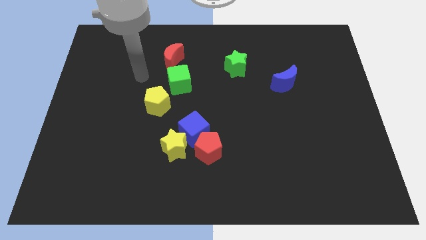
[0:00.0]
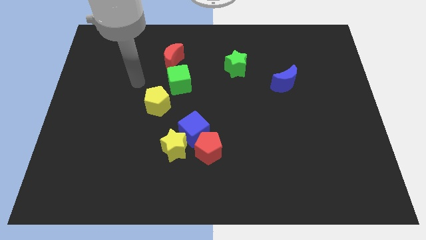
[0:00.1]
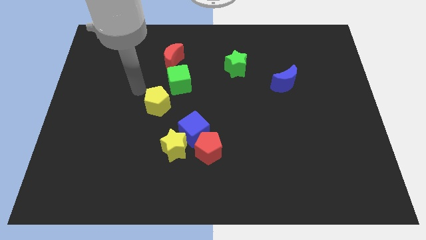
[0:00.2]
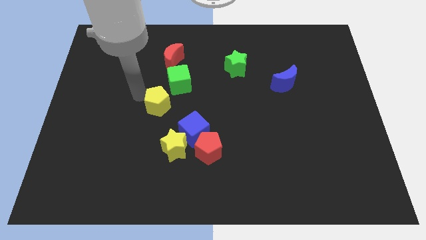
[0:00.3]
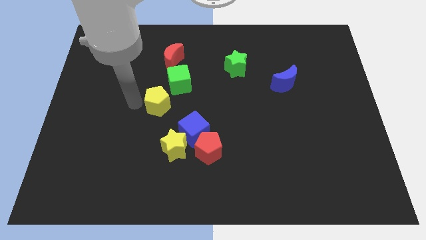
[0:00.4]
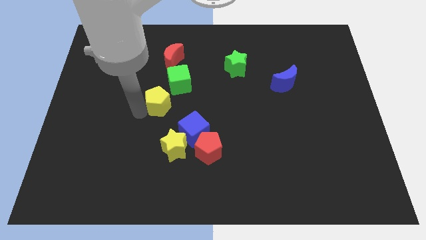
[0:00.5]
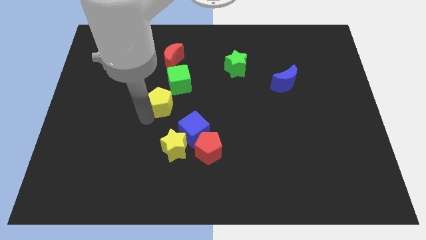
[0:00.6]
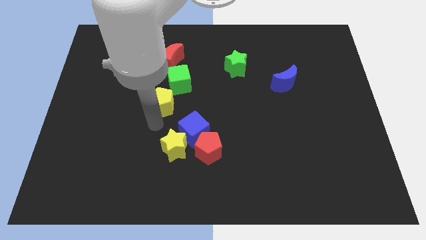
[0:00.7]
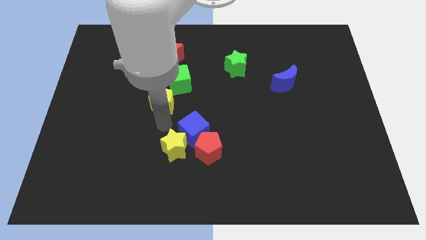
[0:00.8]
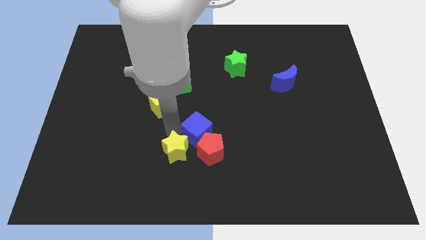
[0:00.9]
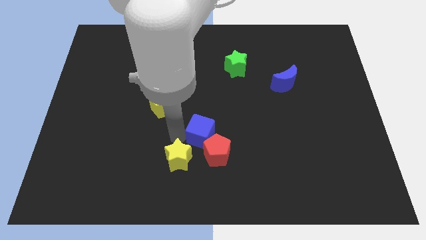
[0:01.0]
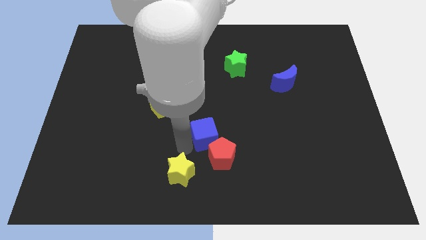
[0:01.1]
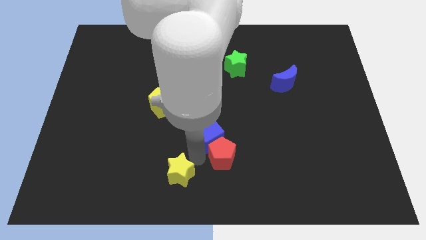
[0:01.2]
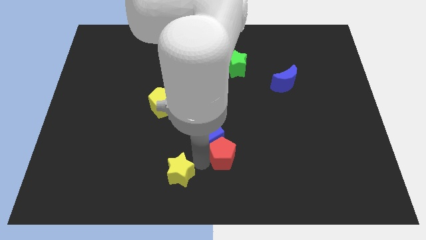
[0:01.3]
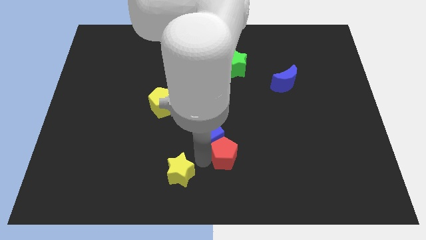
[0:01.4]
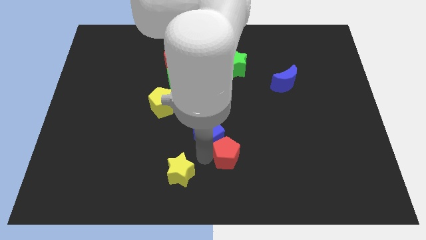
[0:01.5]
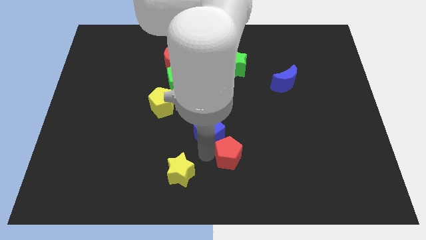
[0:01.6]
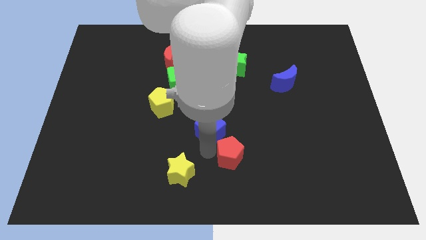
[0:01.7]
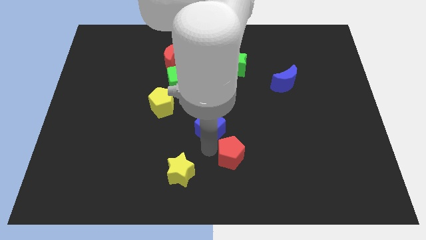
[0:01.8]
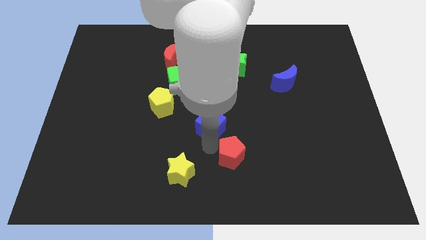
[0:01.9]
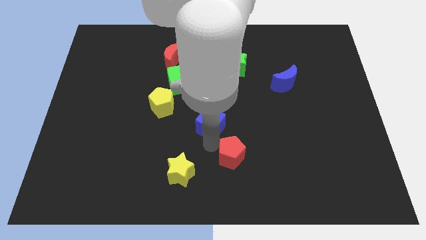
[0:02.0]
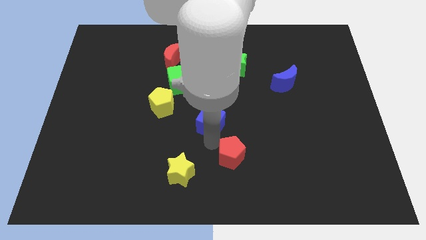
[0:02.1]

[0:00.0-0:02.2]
move the blue cube away from the red pentagon and yellow star

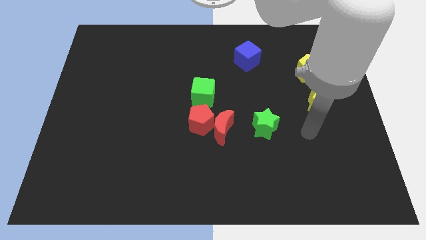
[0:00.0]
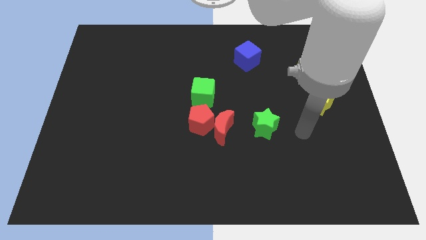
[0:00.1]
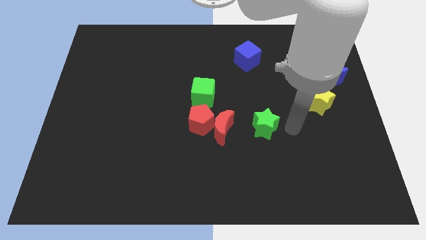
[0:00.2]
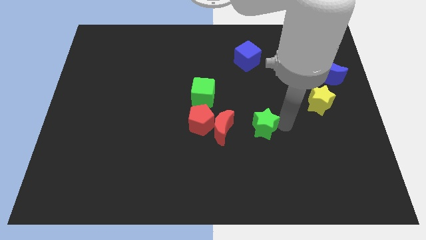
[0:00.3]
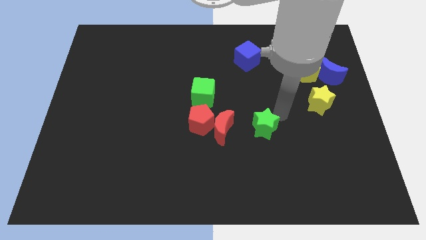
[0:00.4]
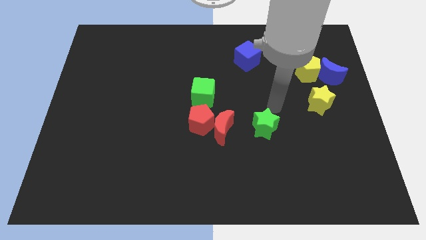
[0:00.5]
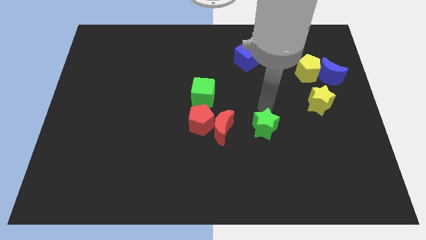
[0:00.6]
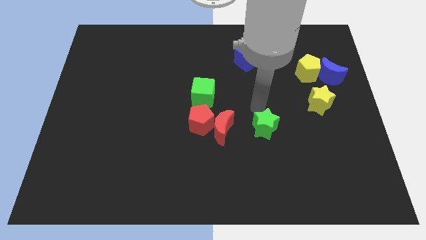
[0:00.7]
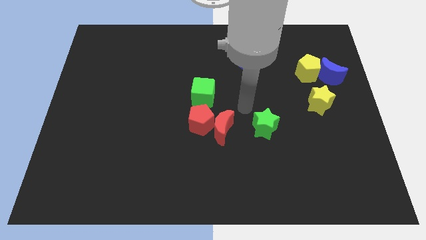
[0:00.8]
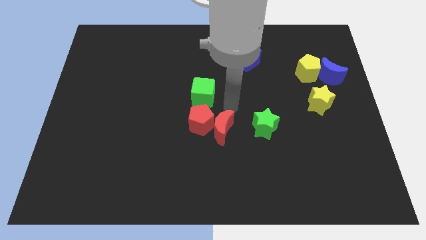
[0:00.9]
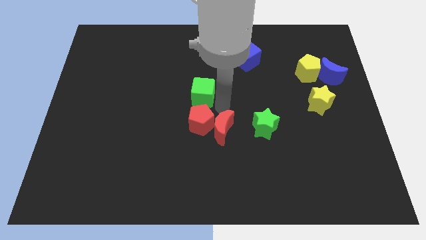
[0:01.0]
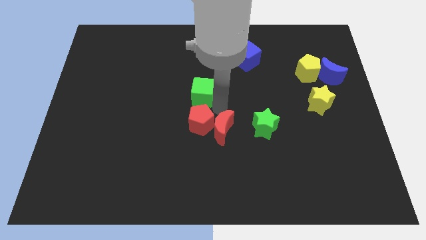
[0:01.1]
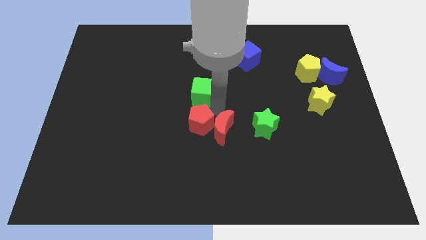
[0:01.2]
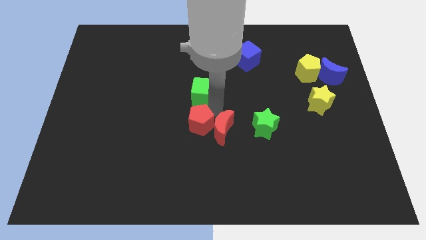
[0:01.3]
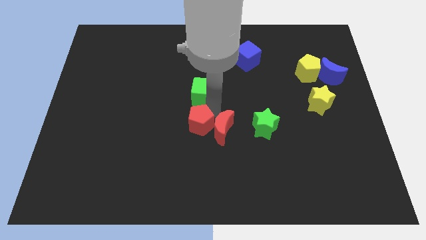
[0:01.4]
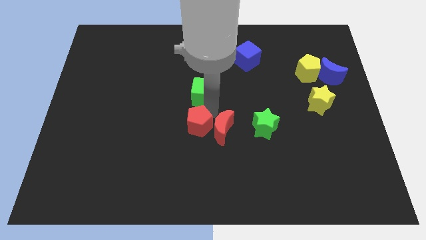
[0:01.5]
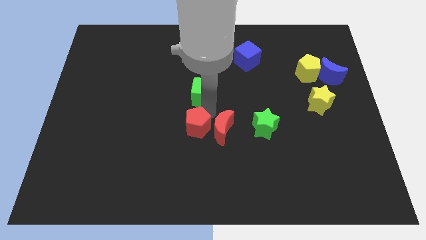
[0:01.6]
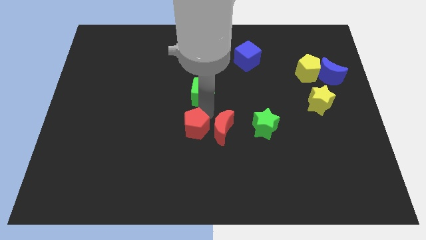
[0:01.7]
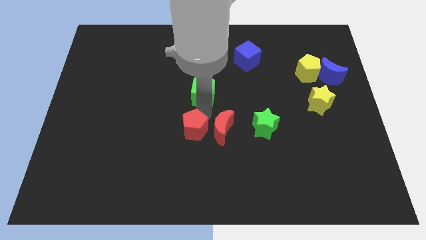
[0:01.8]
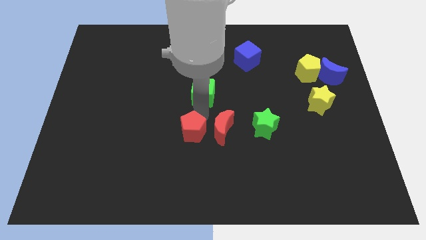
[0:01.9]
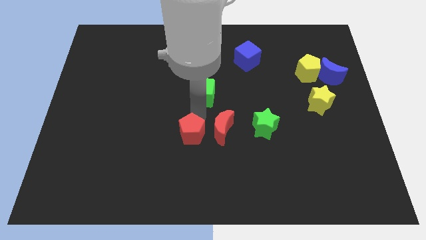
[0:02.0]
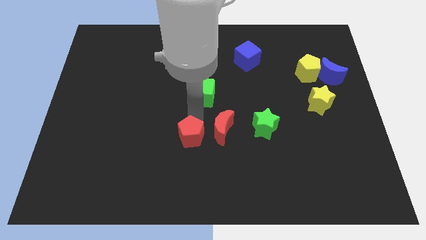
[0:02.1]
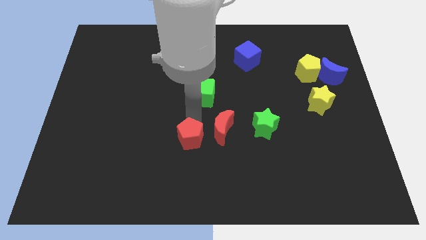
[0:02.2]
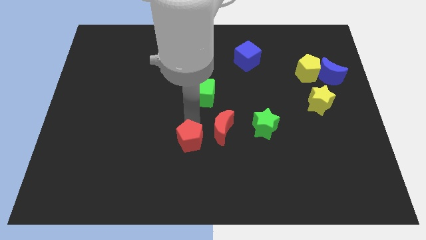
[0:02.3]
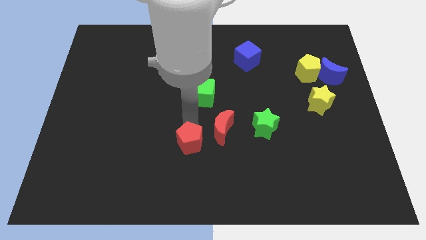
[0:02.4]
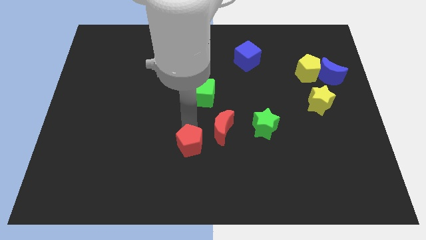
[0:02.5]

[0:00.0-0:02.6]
separate the red pentagon from the red moon and green cube

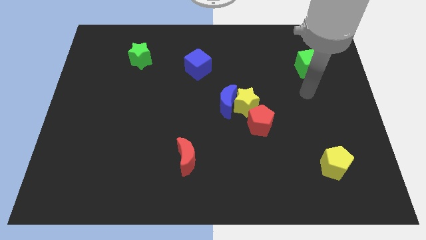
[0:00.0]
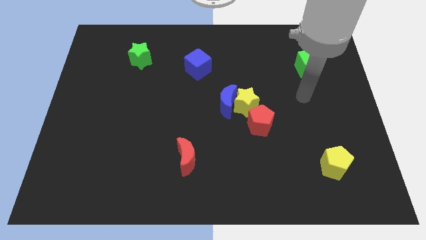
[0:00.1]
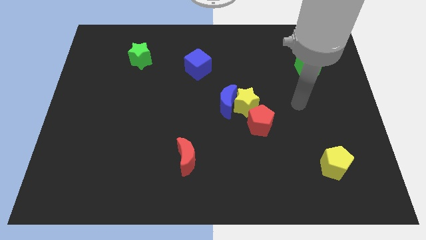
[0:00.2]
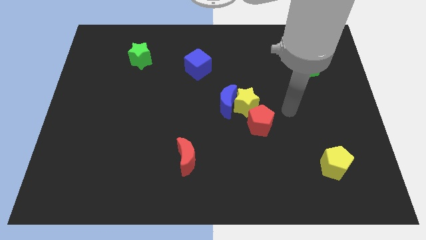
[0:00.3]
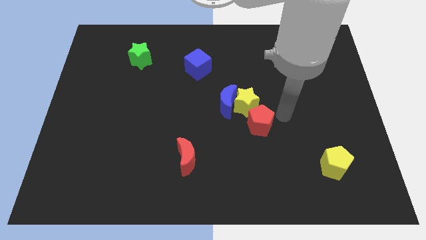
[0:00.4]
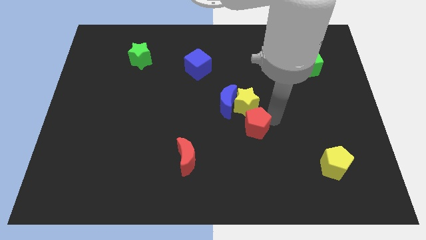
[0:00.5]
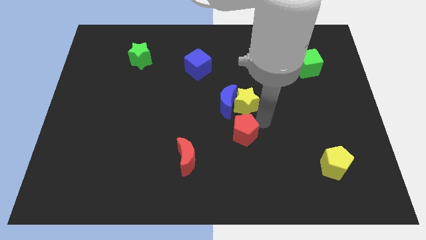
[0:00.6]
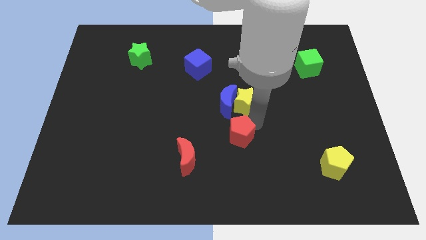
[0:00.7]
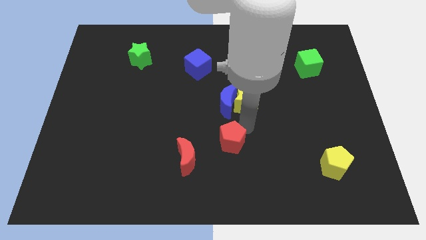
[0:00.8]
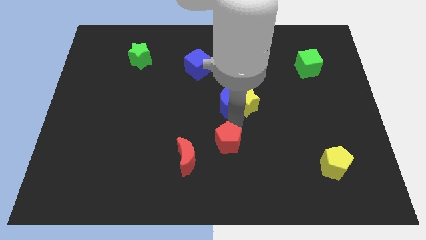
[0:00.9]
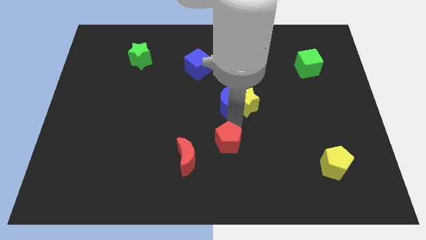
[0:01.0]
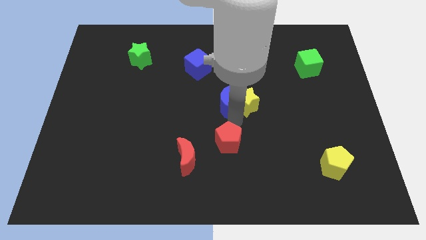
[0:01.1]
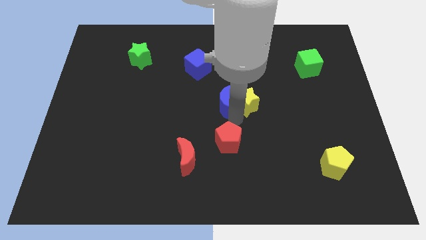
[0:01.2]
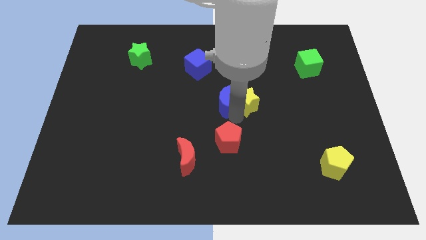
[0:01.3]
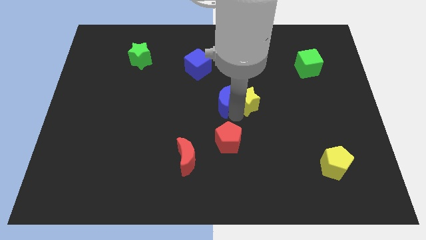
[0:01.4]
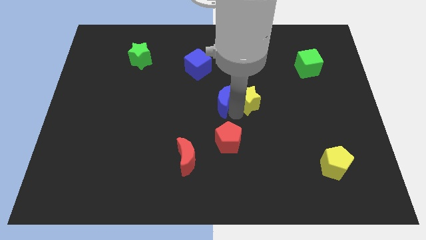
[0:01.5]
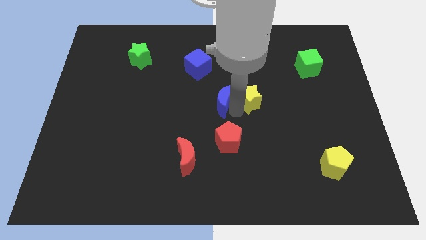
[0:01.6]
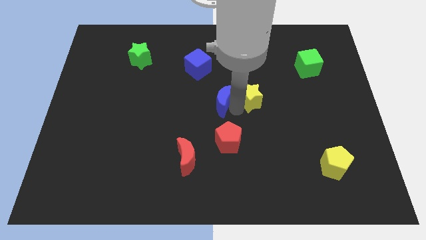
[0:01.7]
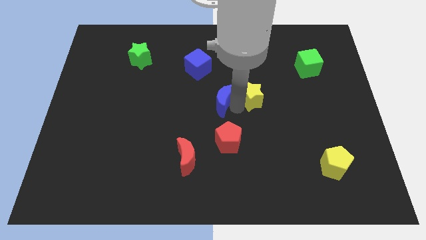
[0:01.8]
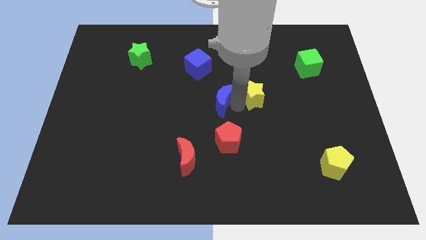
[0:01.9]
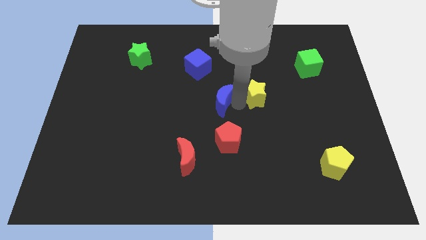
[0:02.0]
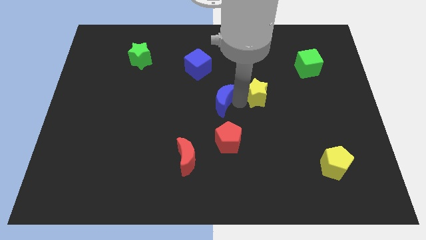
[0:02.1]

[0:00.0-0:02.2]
move the yellow star away from the blue moon and red pentagon

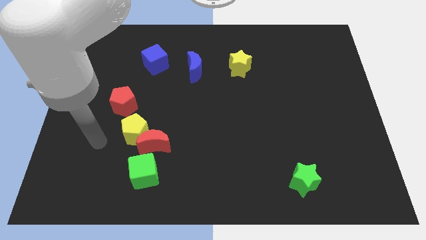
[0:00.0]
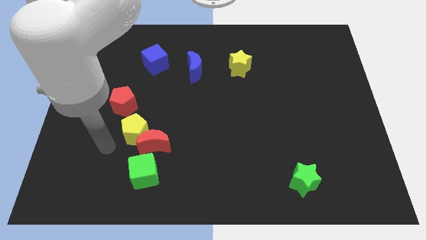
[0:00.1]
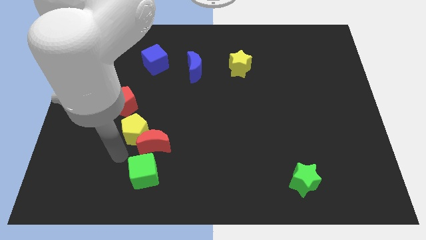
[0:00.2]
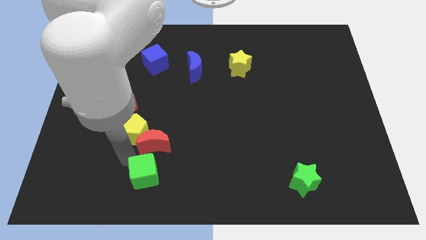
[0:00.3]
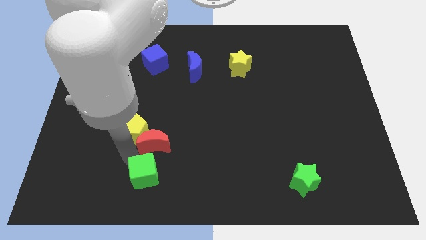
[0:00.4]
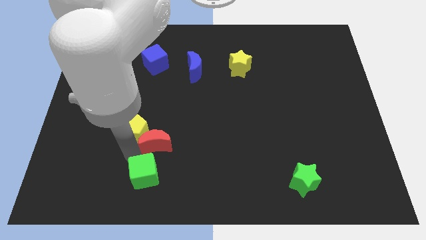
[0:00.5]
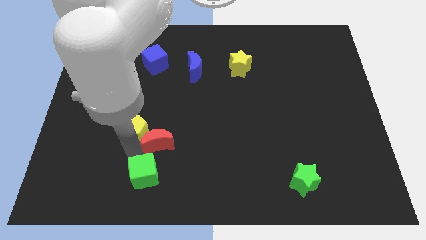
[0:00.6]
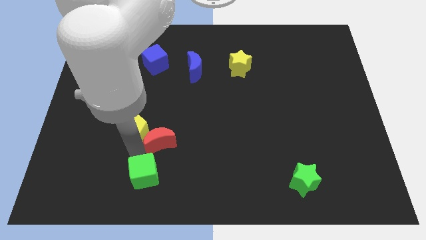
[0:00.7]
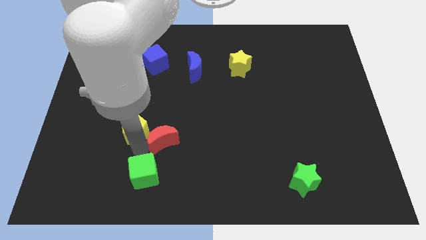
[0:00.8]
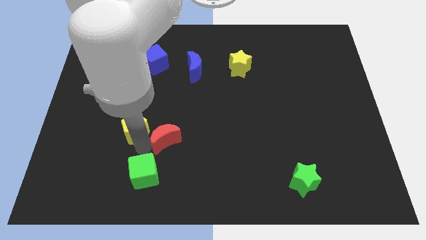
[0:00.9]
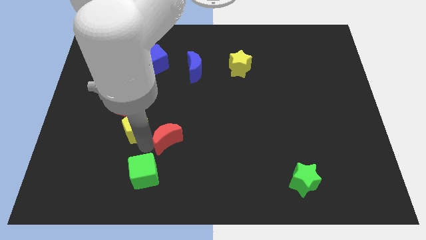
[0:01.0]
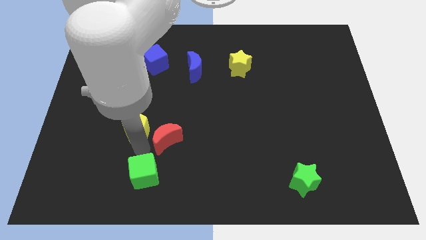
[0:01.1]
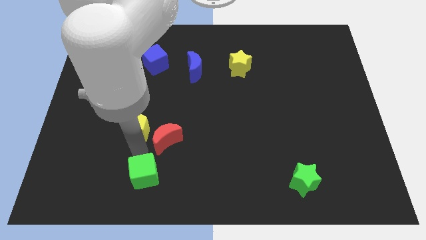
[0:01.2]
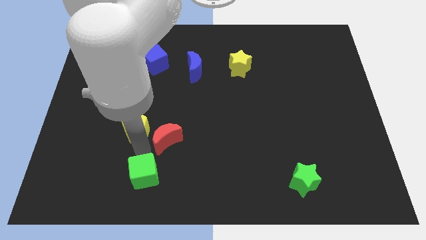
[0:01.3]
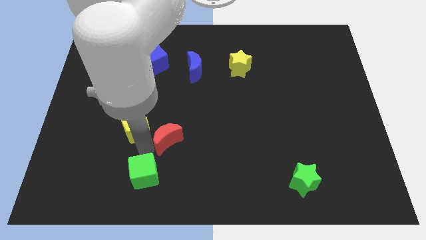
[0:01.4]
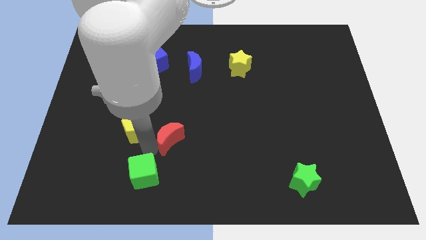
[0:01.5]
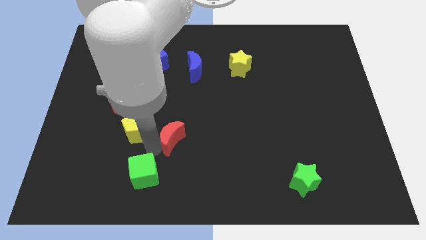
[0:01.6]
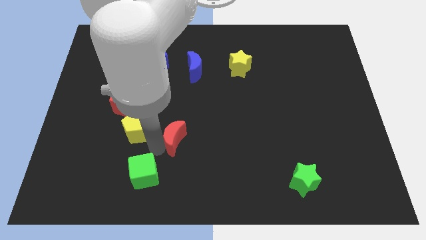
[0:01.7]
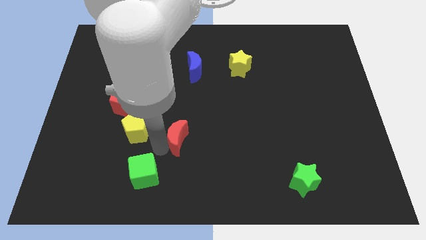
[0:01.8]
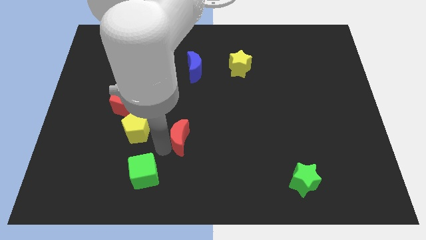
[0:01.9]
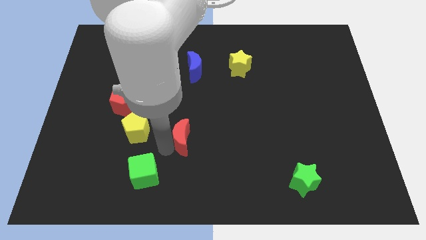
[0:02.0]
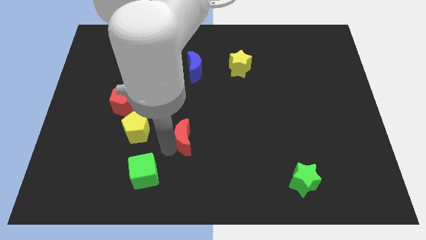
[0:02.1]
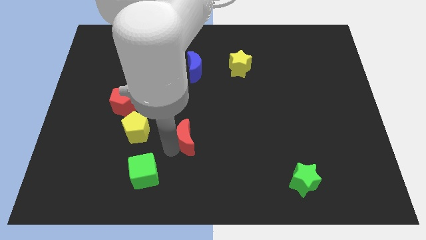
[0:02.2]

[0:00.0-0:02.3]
move the red moon away from the yellow pentagon and green cube
